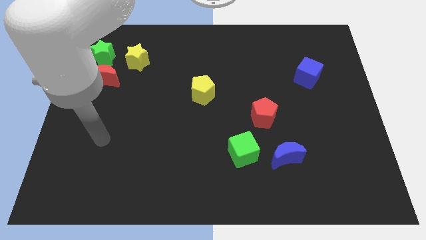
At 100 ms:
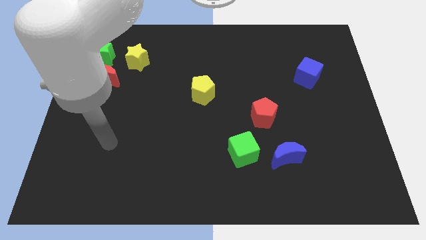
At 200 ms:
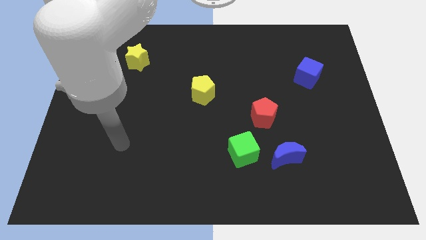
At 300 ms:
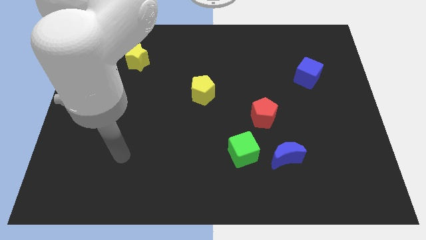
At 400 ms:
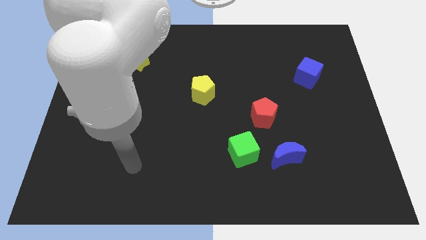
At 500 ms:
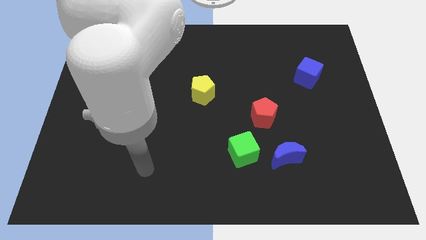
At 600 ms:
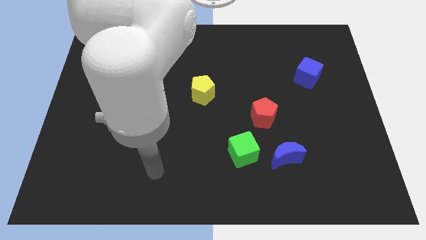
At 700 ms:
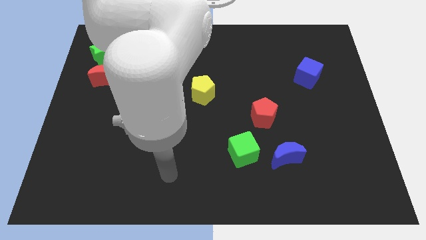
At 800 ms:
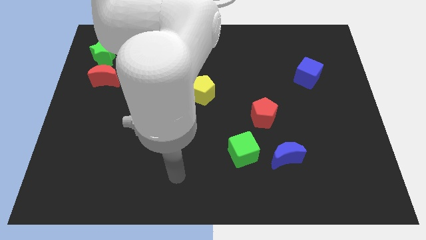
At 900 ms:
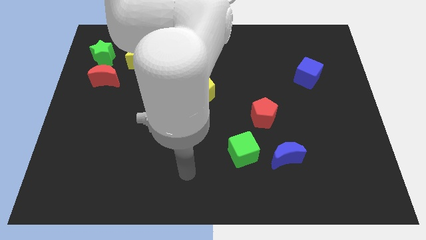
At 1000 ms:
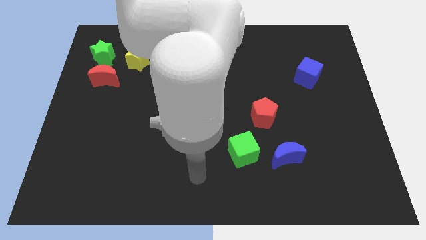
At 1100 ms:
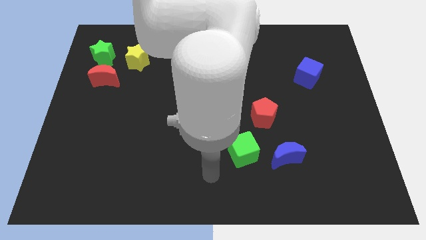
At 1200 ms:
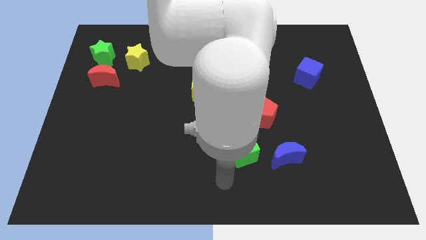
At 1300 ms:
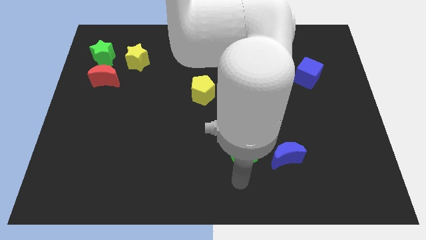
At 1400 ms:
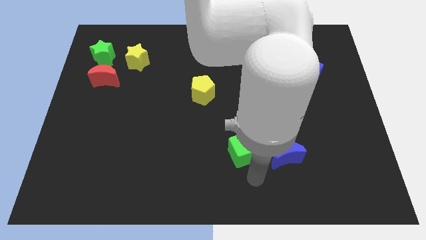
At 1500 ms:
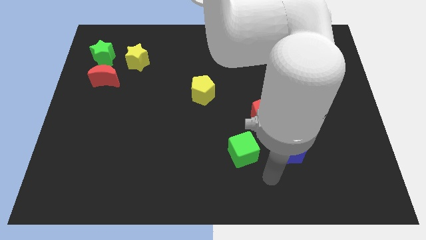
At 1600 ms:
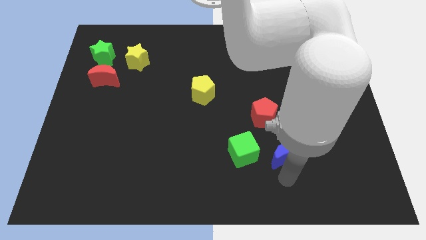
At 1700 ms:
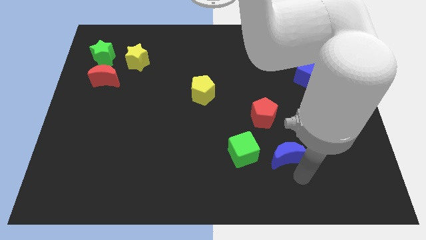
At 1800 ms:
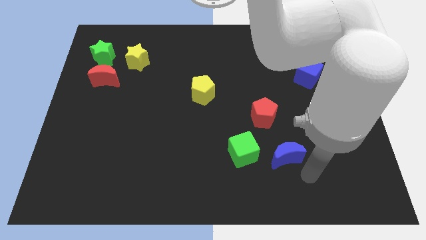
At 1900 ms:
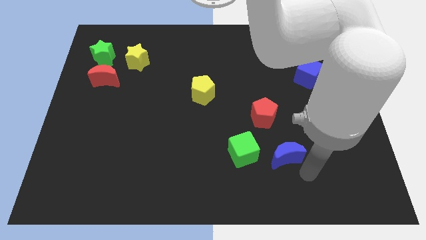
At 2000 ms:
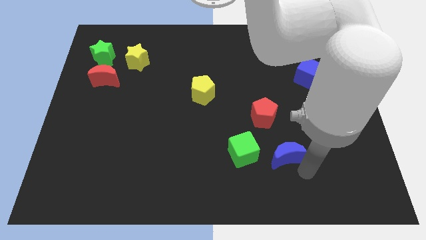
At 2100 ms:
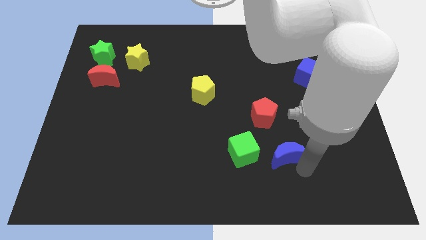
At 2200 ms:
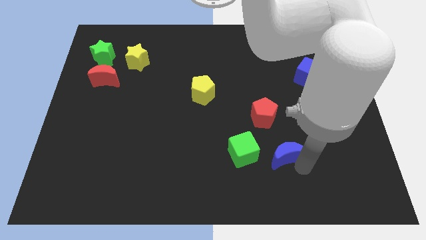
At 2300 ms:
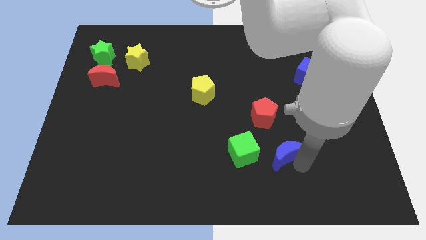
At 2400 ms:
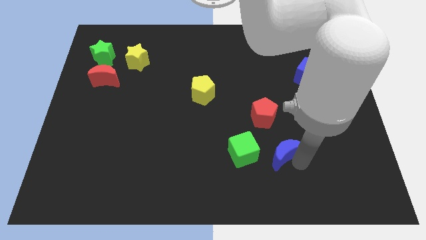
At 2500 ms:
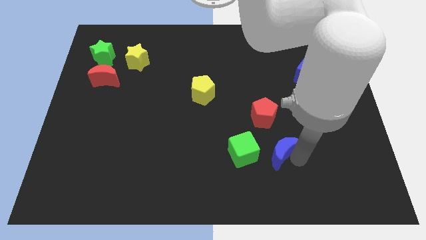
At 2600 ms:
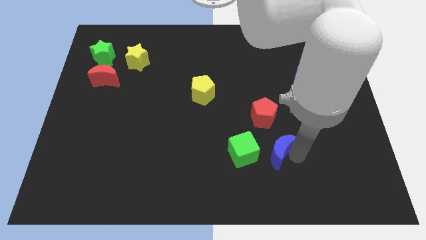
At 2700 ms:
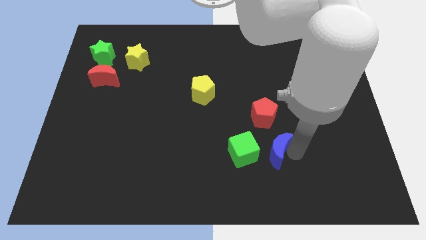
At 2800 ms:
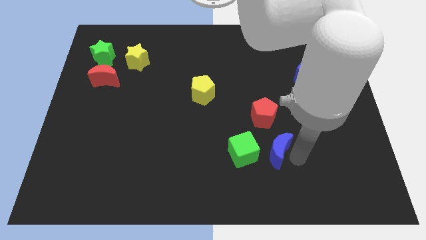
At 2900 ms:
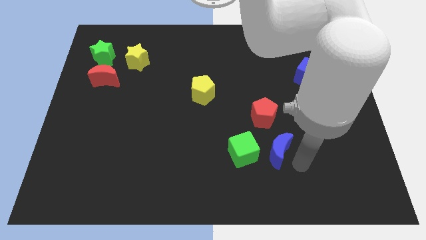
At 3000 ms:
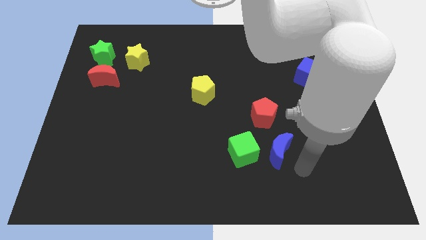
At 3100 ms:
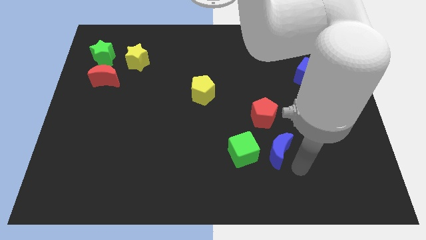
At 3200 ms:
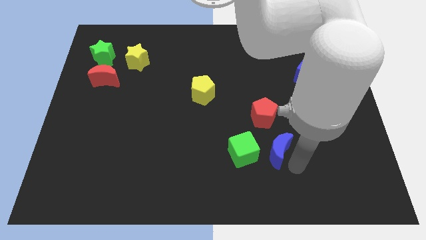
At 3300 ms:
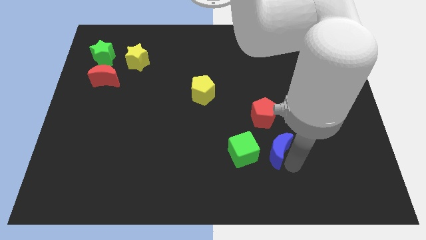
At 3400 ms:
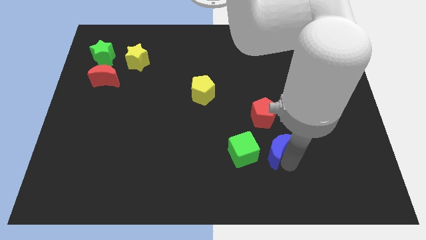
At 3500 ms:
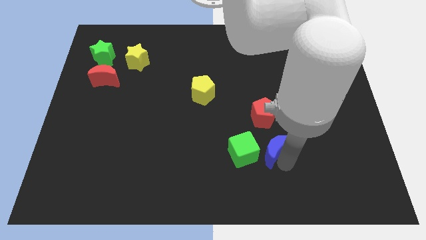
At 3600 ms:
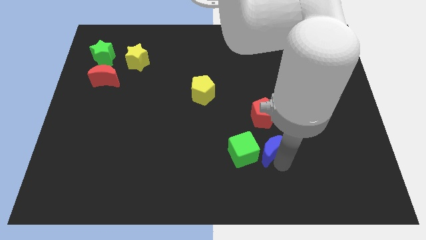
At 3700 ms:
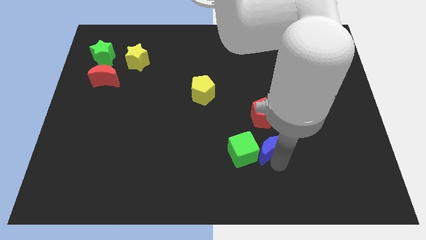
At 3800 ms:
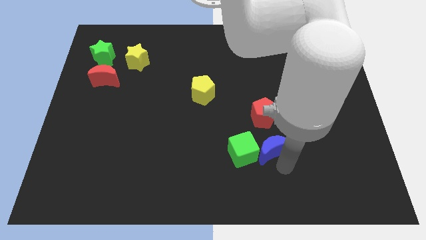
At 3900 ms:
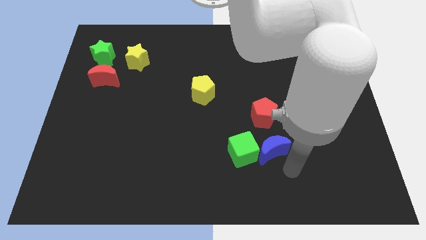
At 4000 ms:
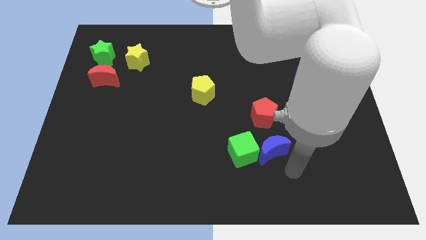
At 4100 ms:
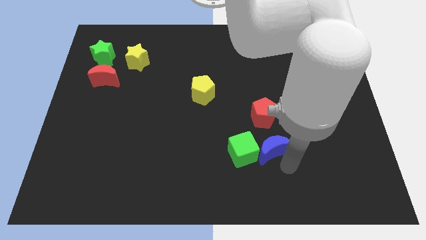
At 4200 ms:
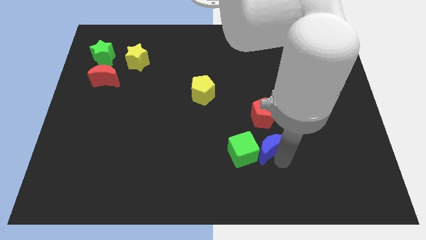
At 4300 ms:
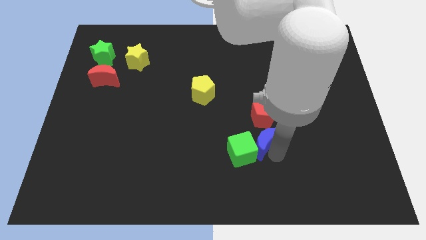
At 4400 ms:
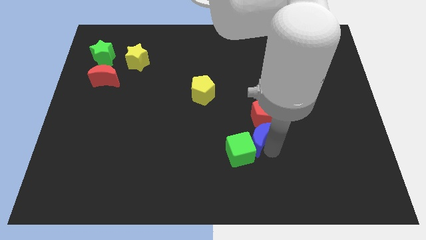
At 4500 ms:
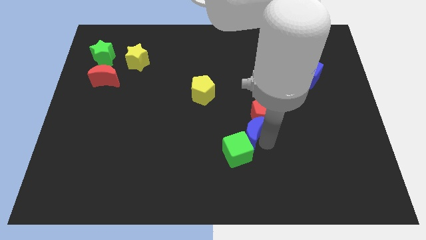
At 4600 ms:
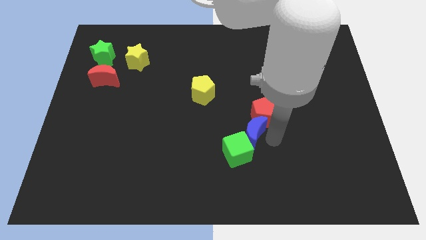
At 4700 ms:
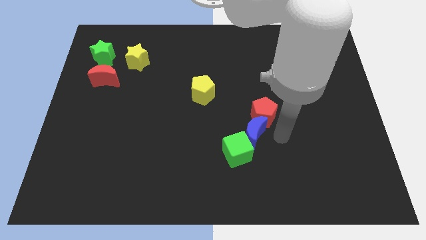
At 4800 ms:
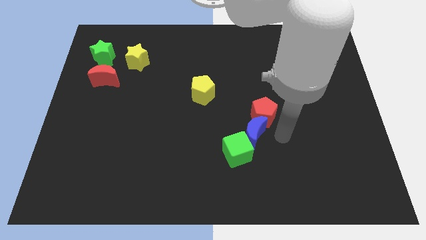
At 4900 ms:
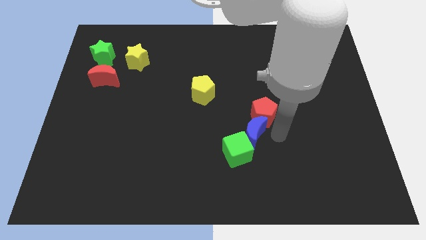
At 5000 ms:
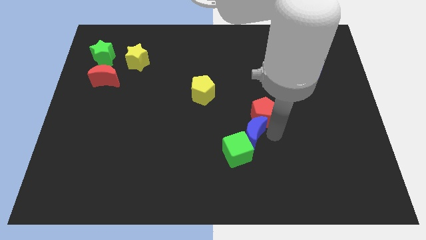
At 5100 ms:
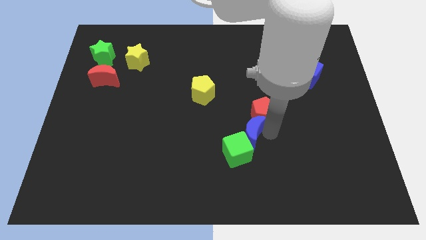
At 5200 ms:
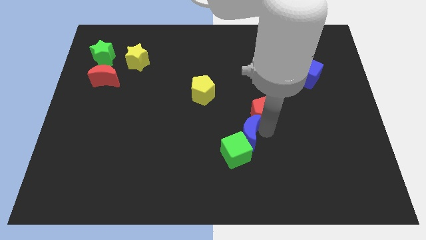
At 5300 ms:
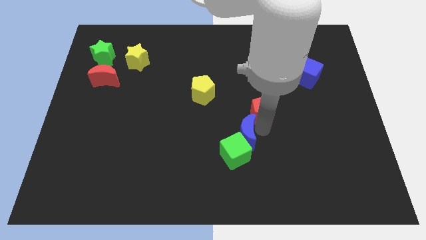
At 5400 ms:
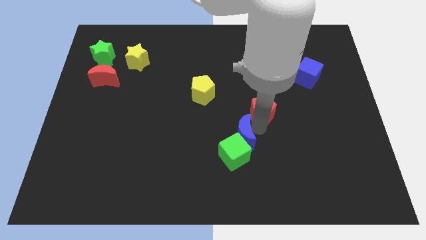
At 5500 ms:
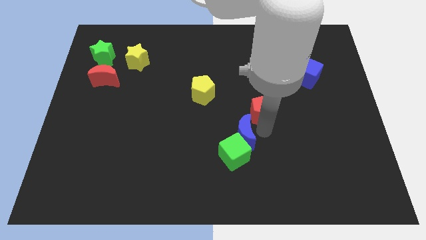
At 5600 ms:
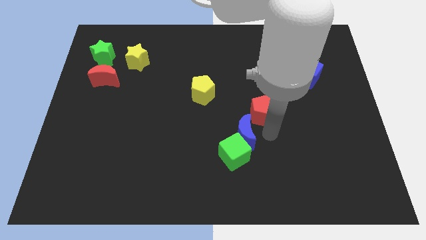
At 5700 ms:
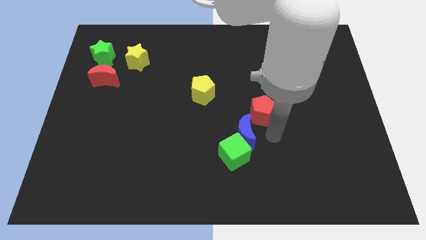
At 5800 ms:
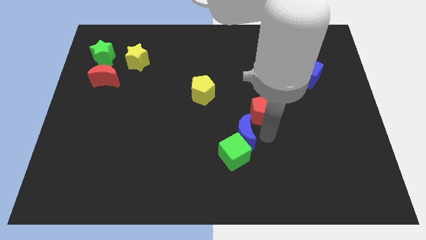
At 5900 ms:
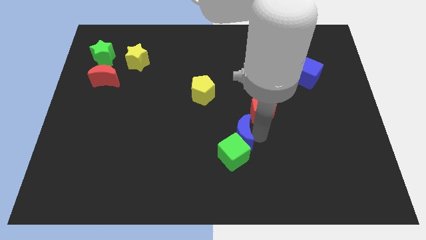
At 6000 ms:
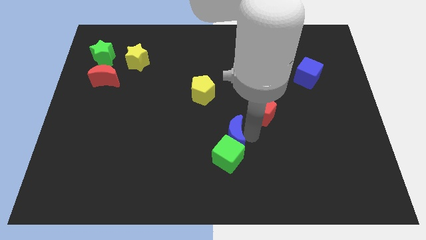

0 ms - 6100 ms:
push the blue moon to the top left side of the green cube

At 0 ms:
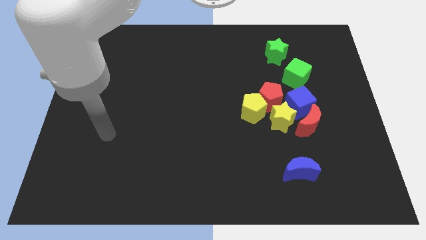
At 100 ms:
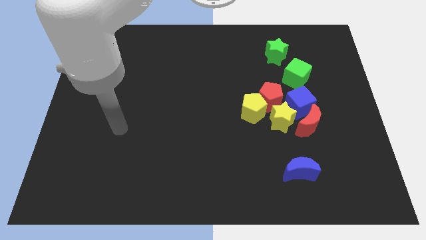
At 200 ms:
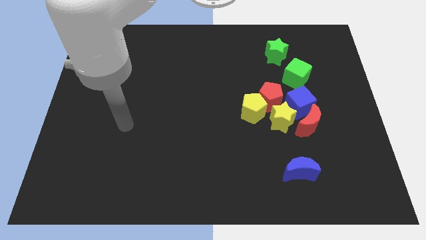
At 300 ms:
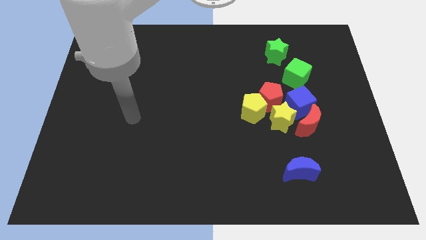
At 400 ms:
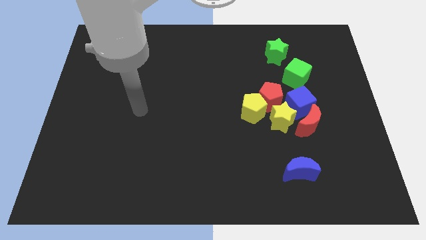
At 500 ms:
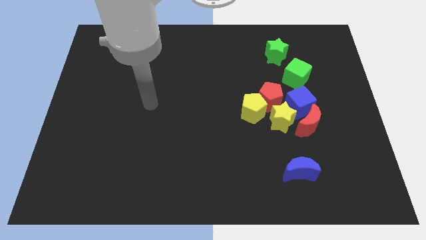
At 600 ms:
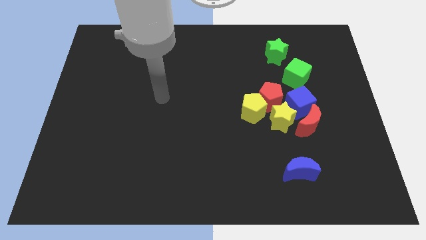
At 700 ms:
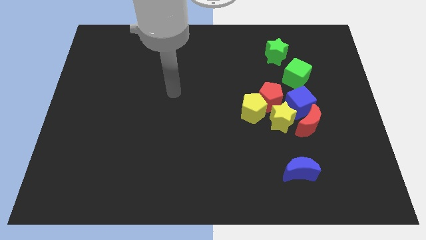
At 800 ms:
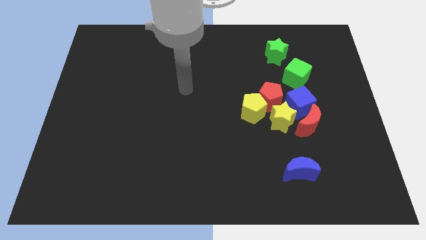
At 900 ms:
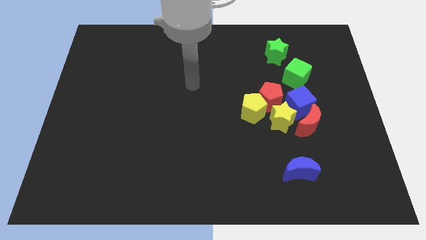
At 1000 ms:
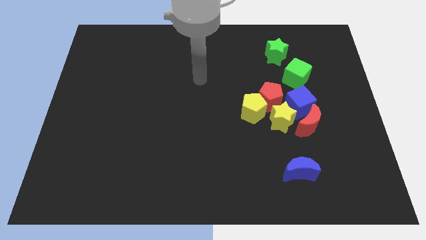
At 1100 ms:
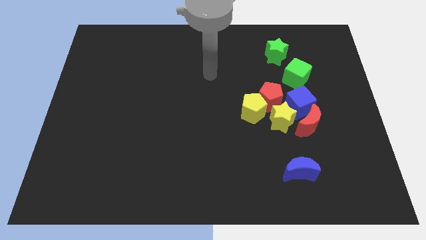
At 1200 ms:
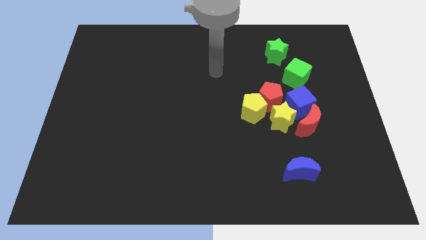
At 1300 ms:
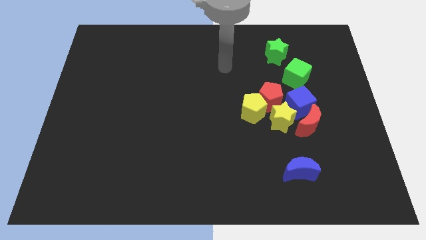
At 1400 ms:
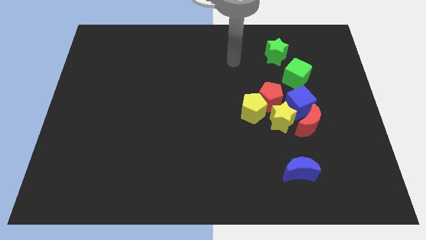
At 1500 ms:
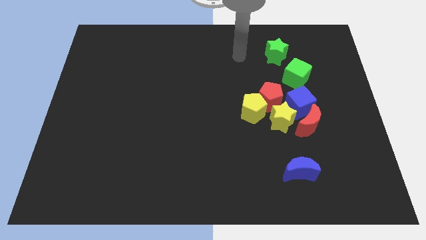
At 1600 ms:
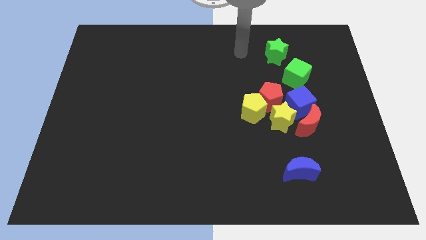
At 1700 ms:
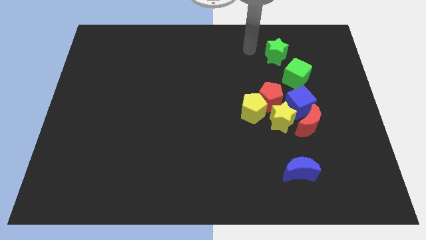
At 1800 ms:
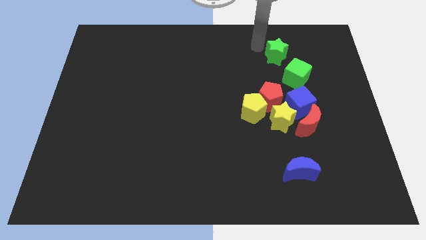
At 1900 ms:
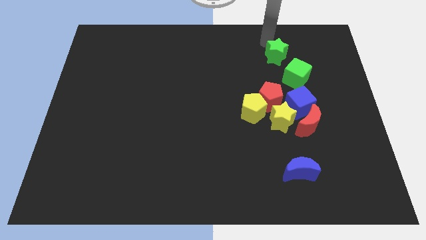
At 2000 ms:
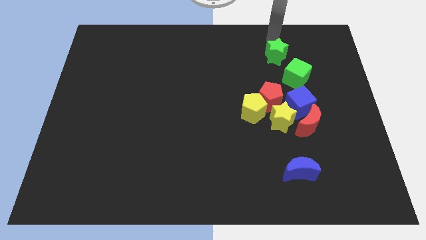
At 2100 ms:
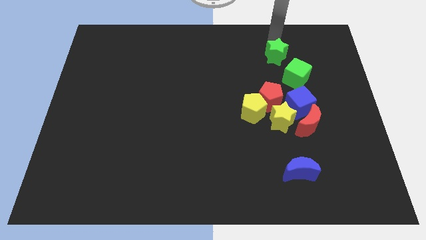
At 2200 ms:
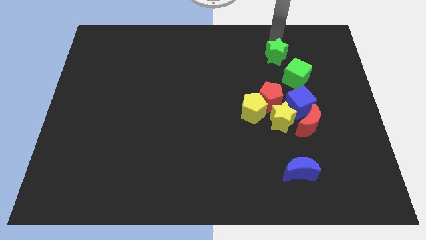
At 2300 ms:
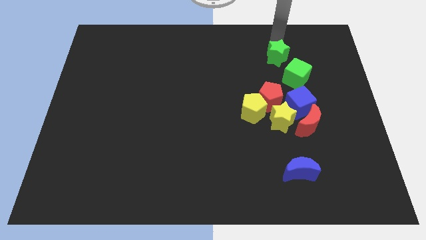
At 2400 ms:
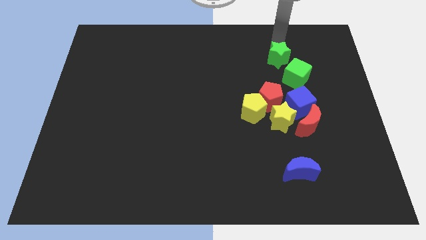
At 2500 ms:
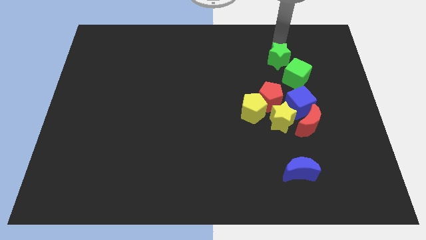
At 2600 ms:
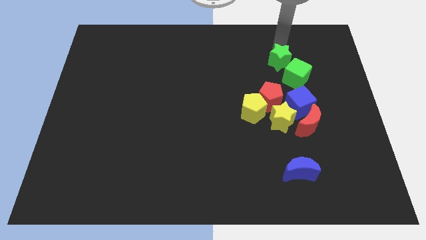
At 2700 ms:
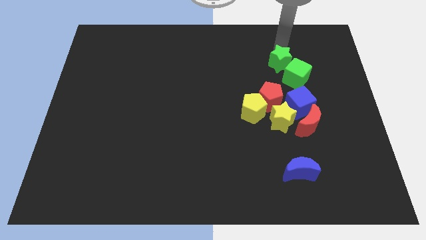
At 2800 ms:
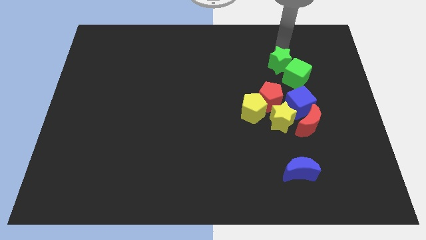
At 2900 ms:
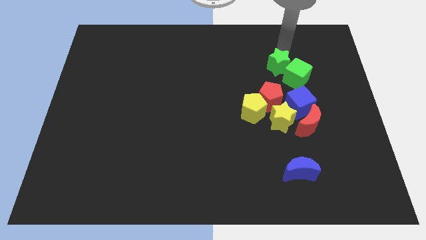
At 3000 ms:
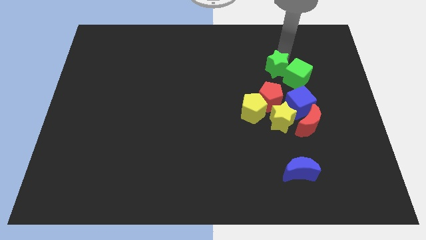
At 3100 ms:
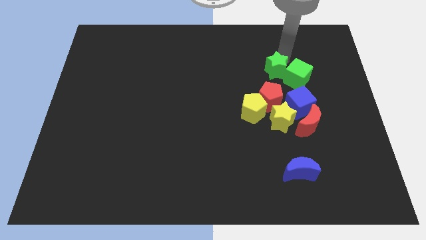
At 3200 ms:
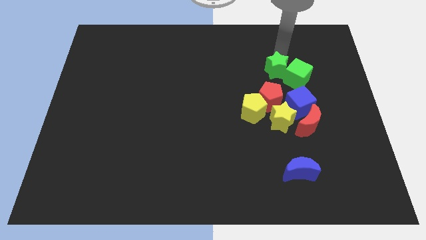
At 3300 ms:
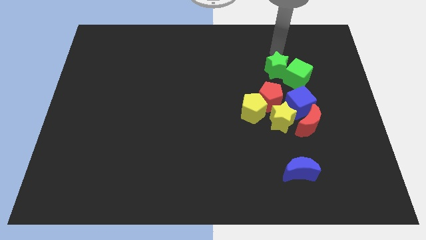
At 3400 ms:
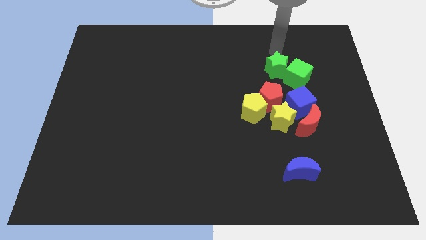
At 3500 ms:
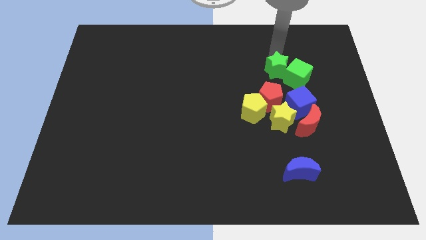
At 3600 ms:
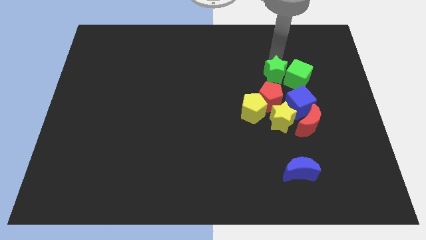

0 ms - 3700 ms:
put the green star to the top left side of the blue cube
